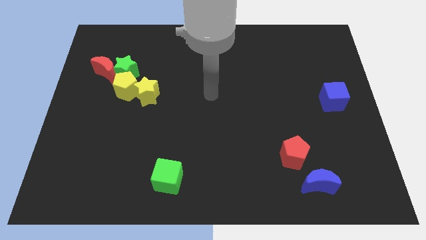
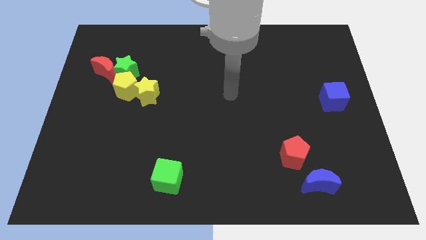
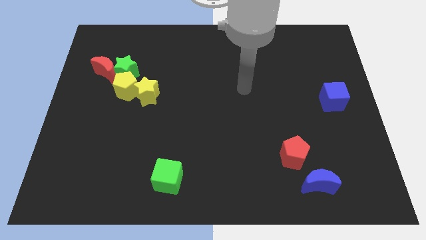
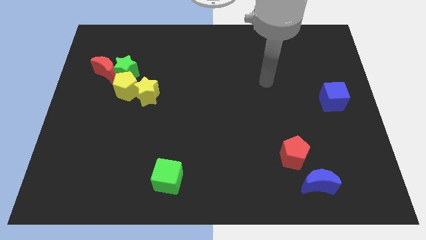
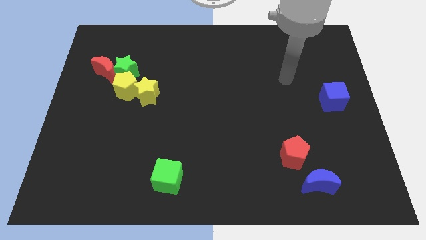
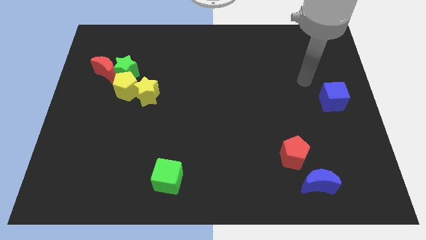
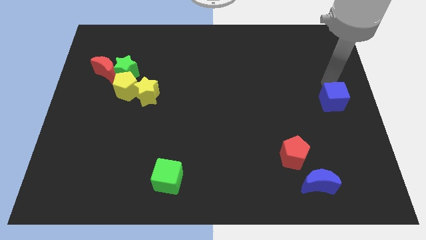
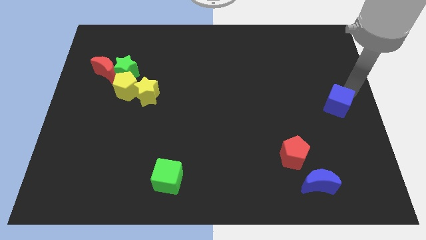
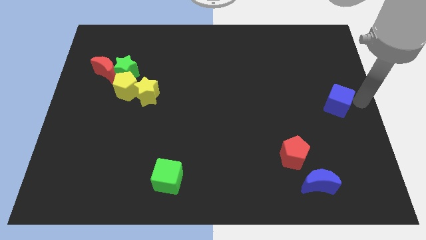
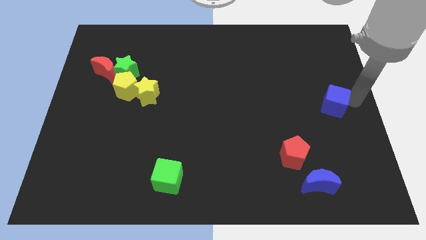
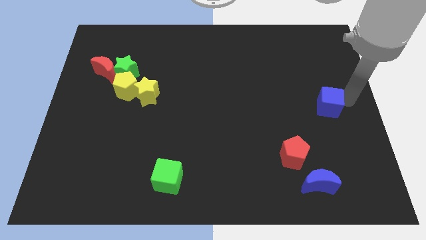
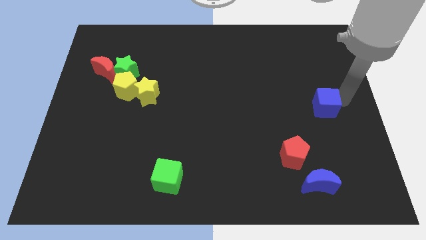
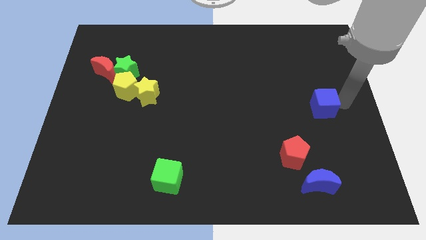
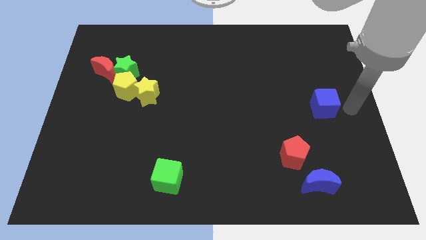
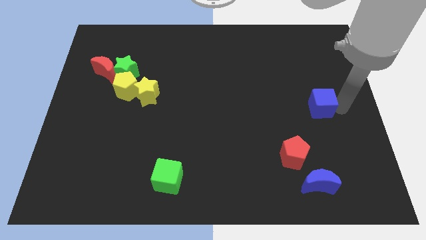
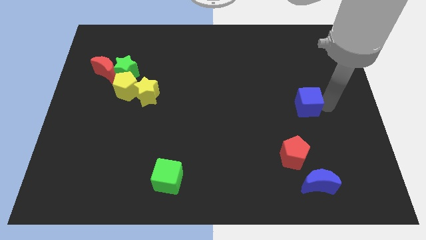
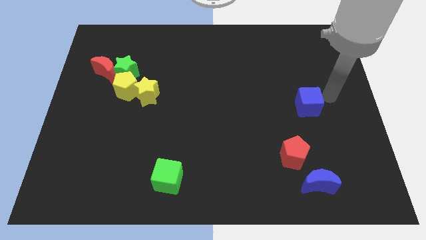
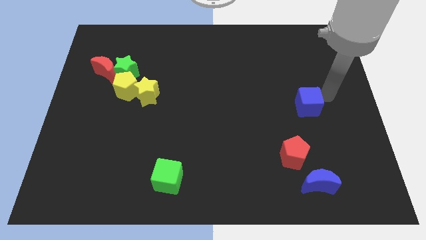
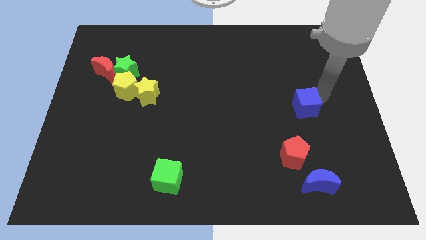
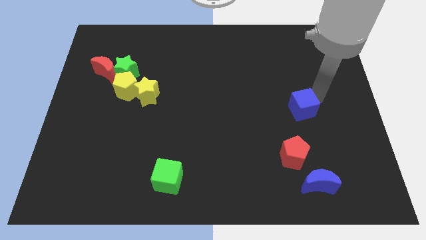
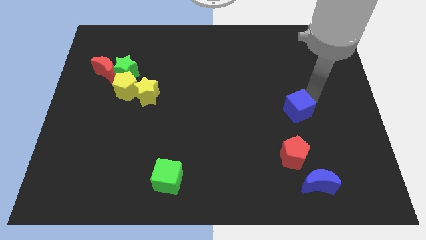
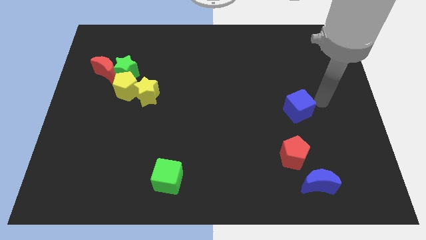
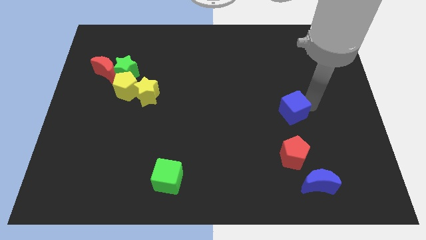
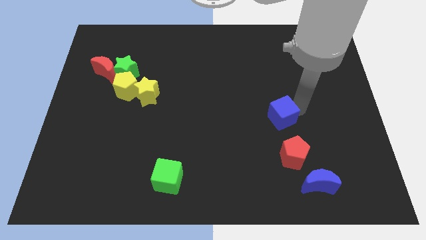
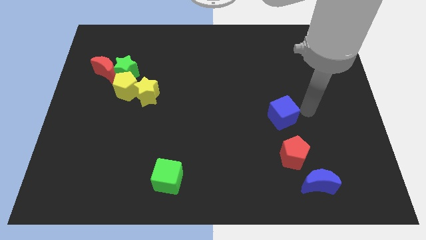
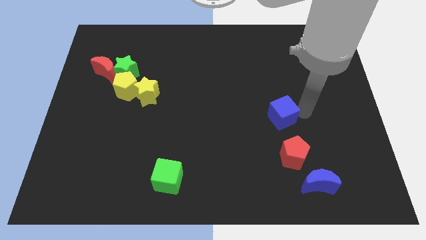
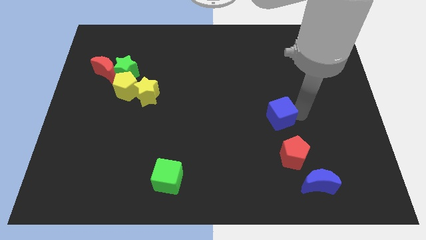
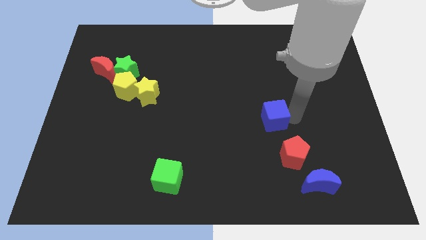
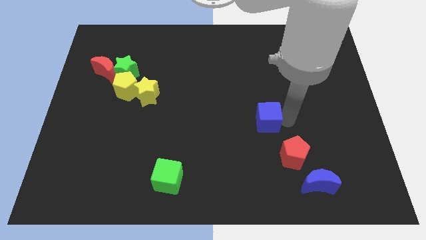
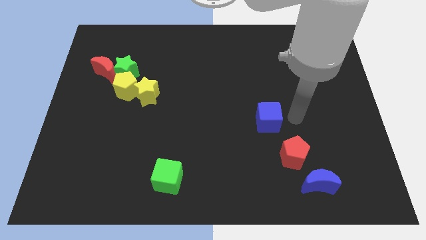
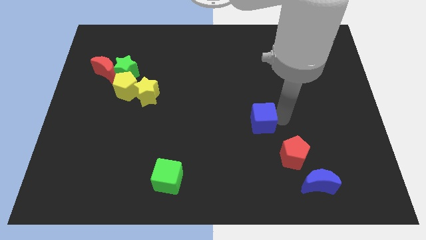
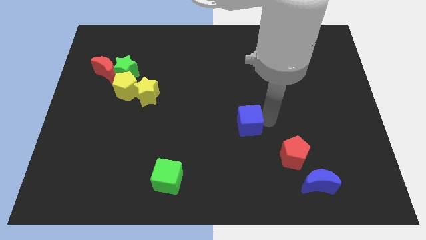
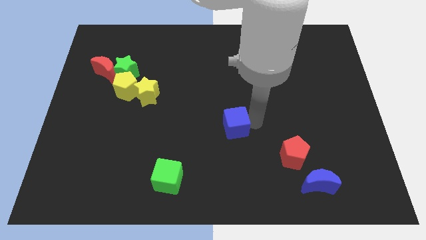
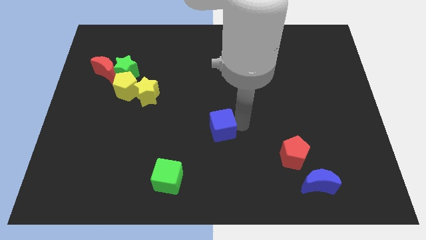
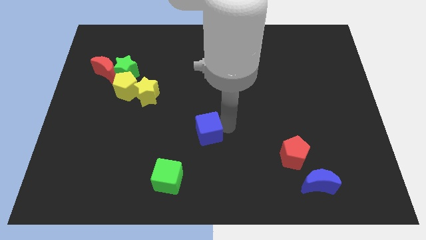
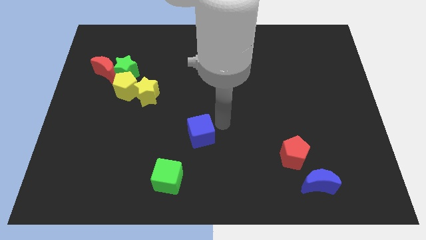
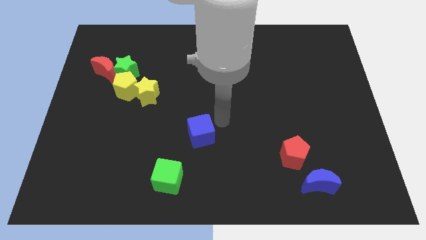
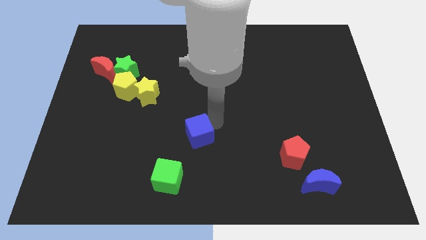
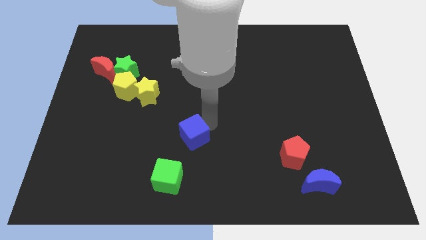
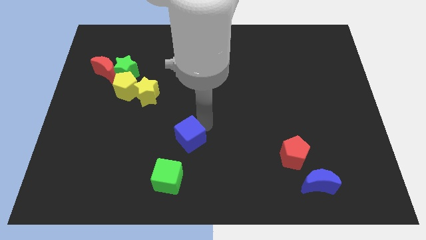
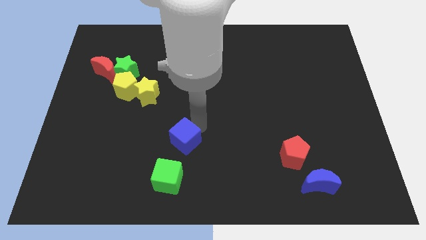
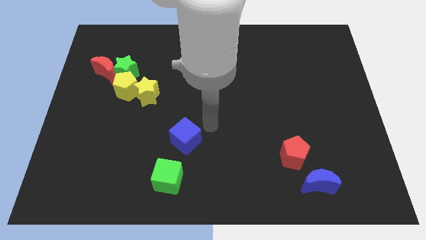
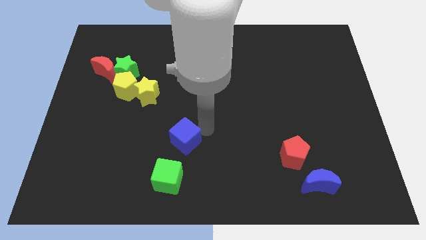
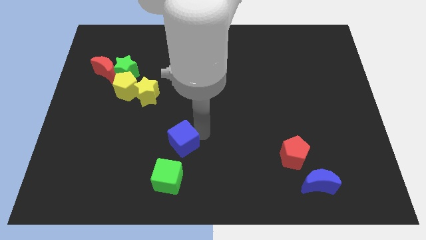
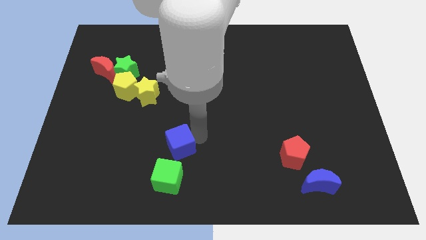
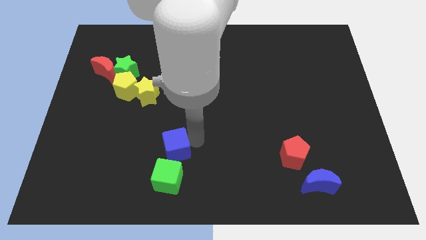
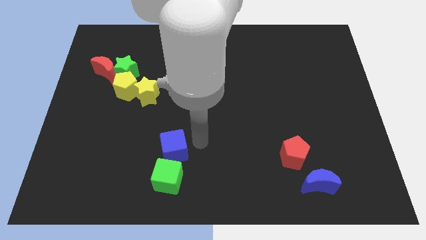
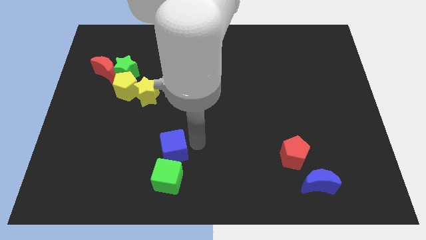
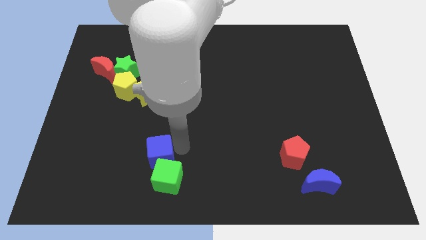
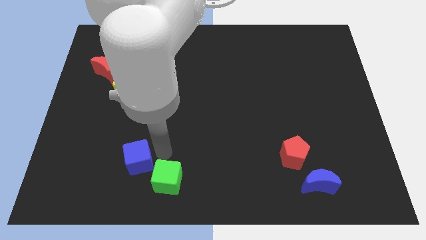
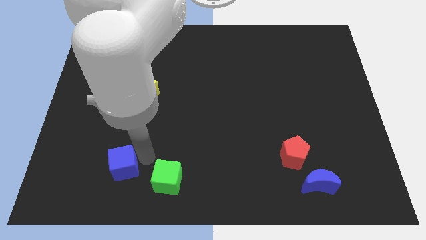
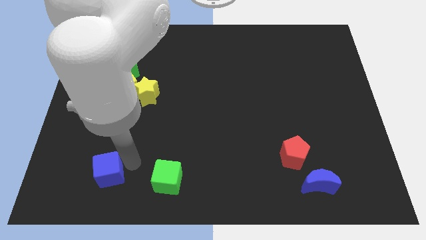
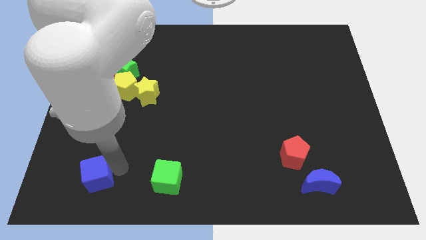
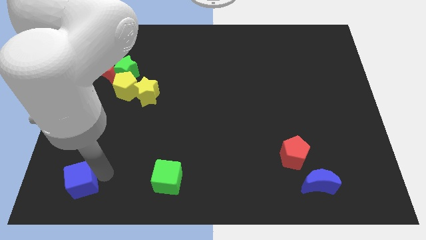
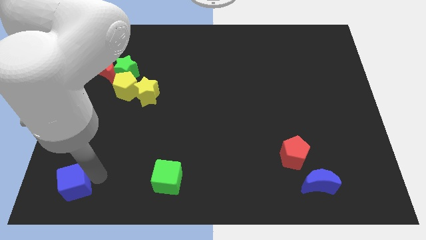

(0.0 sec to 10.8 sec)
push the blue cube to the bottom left
